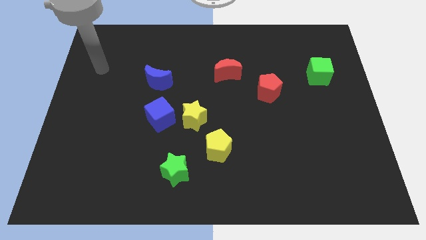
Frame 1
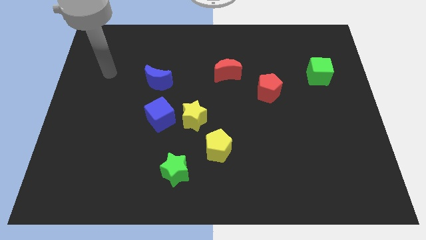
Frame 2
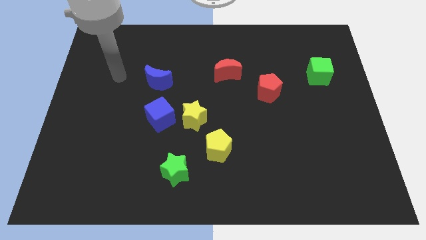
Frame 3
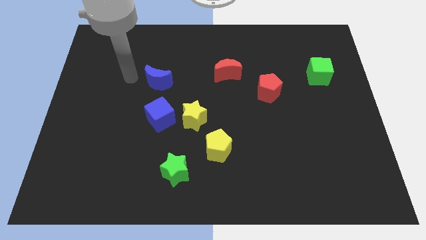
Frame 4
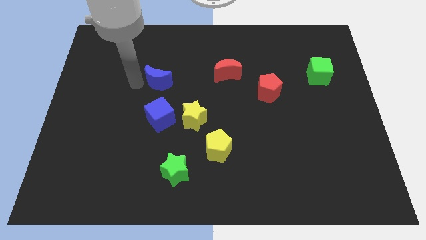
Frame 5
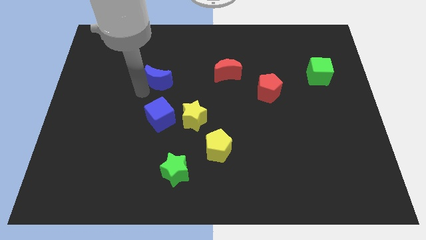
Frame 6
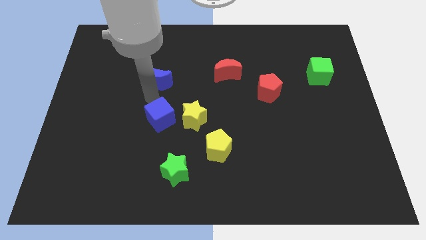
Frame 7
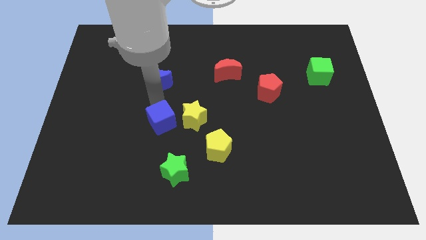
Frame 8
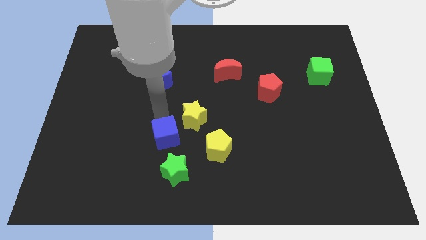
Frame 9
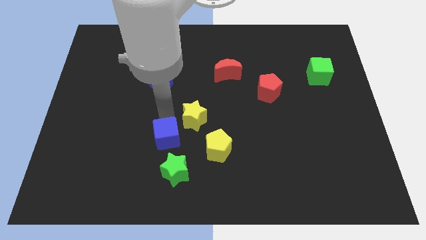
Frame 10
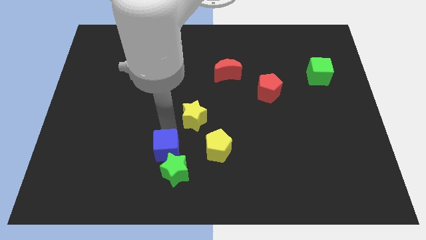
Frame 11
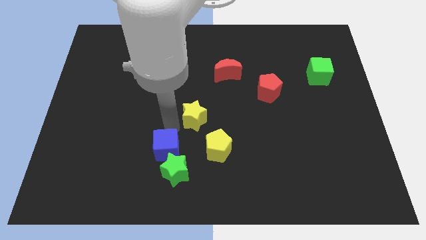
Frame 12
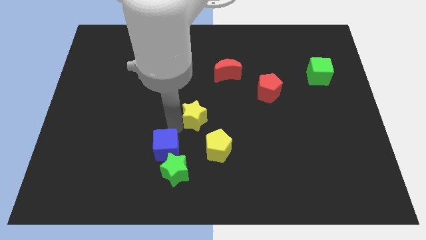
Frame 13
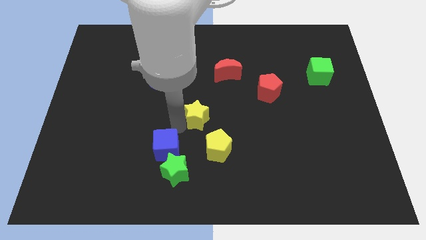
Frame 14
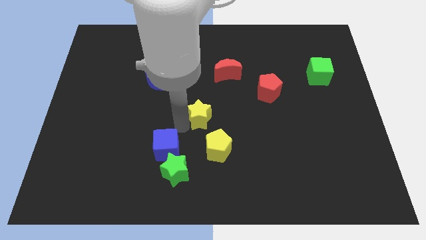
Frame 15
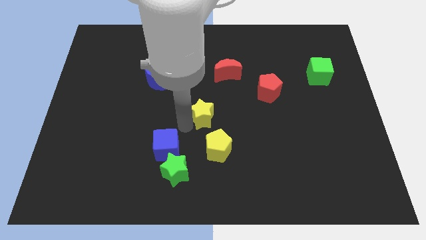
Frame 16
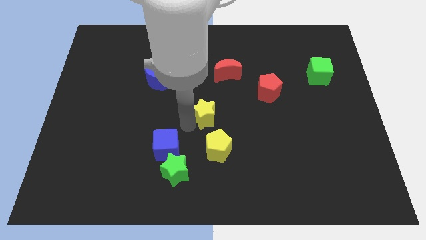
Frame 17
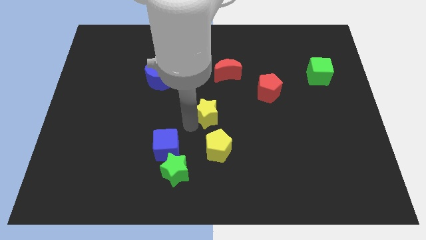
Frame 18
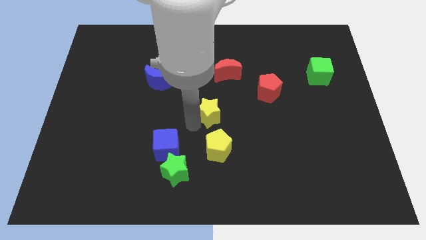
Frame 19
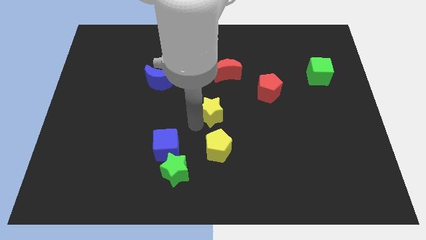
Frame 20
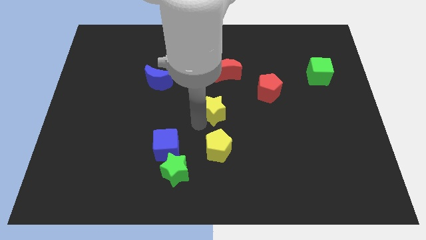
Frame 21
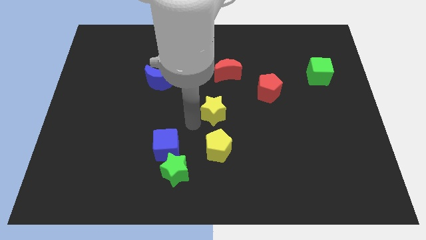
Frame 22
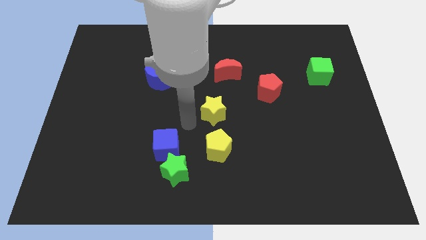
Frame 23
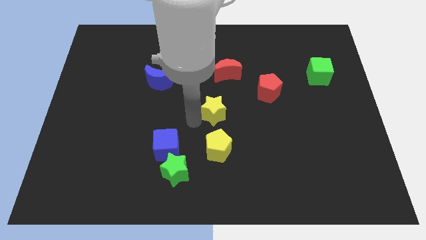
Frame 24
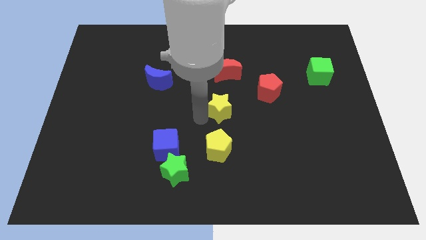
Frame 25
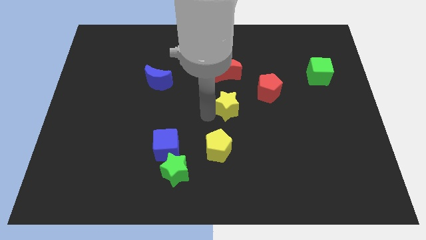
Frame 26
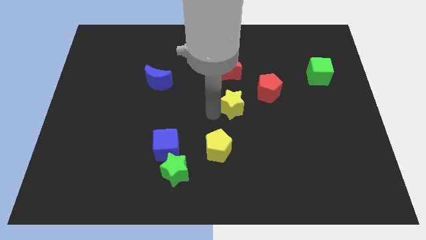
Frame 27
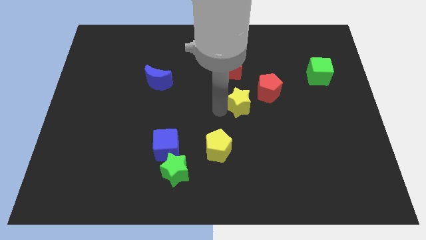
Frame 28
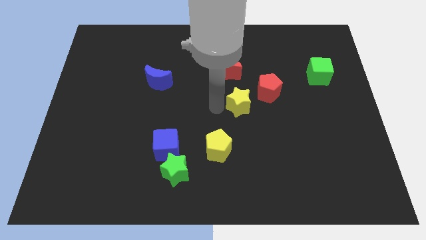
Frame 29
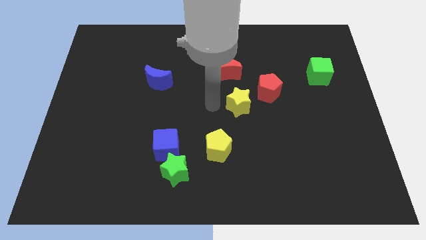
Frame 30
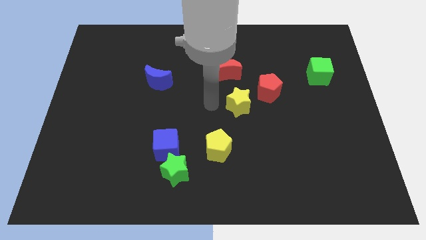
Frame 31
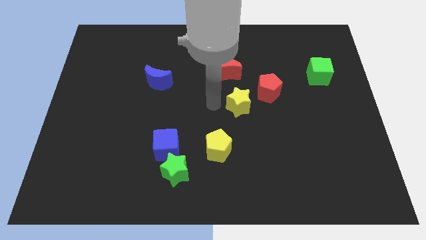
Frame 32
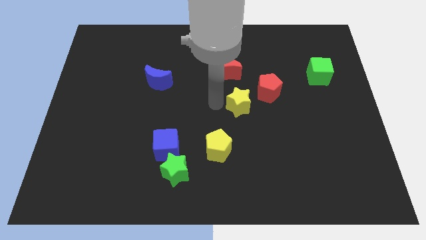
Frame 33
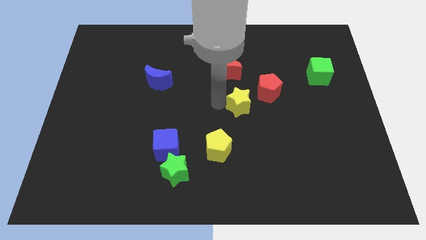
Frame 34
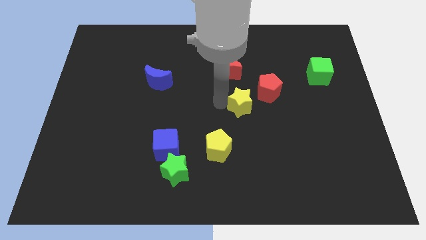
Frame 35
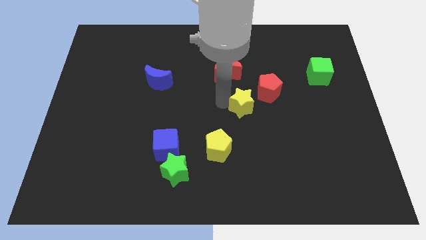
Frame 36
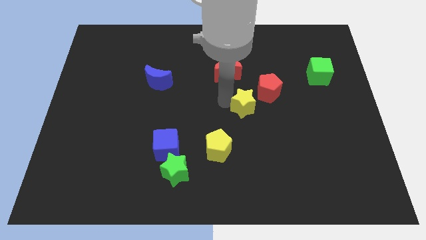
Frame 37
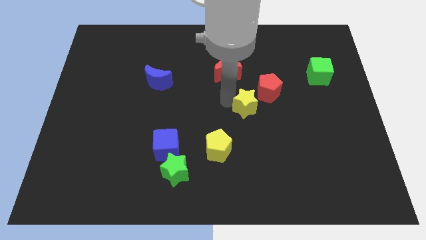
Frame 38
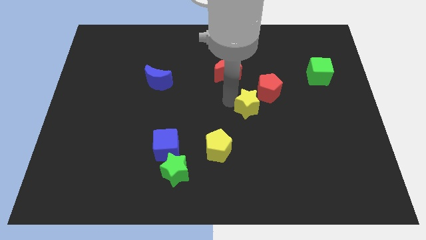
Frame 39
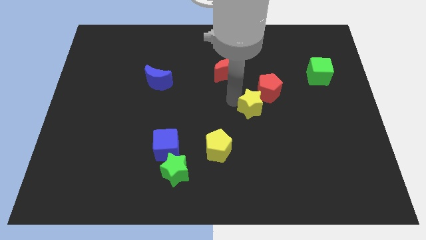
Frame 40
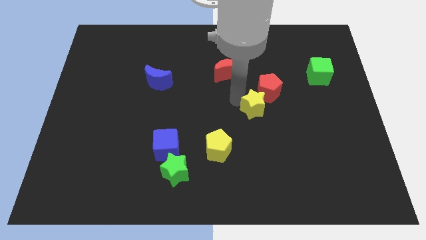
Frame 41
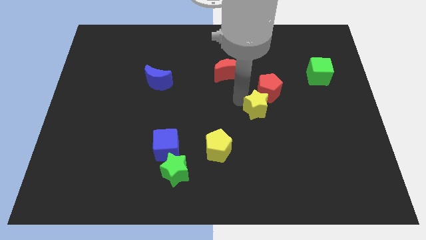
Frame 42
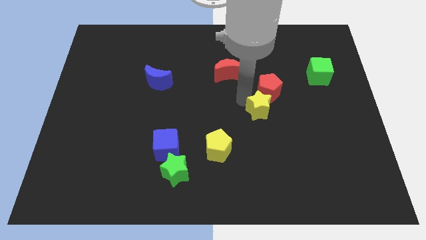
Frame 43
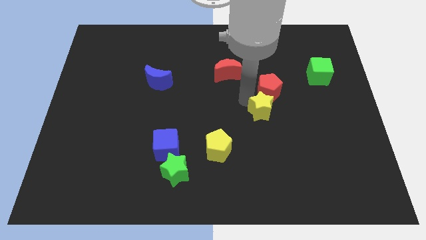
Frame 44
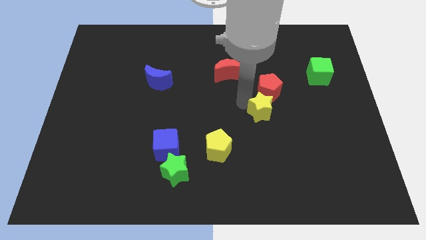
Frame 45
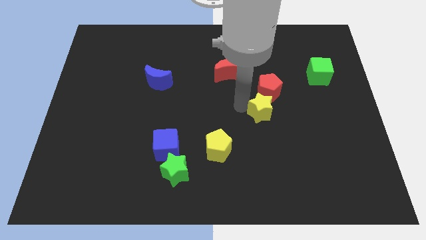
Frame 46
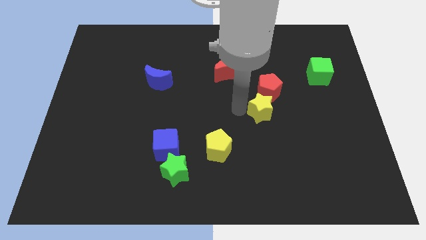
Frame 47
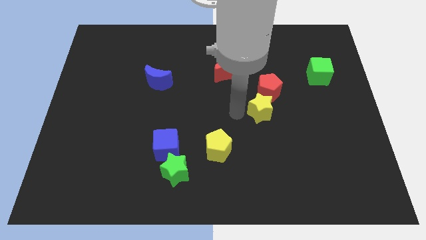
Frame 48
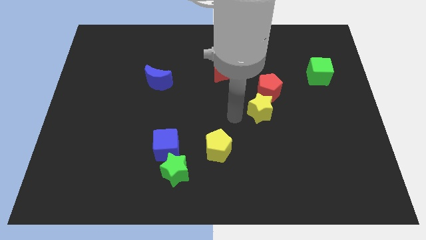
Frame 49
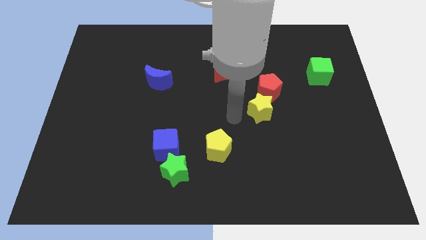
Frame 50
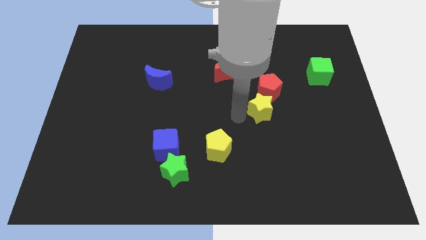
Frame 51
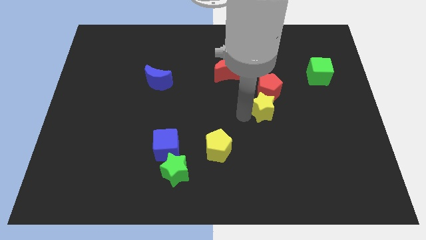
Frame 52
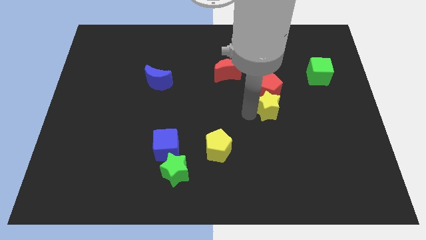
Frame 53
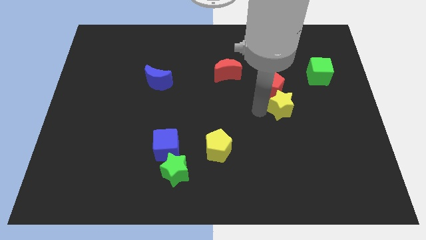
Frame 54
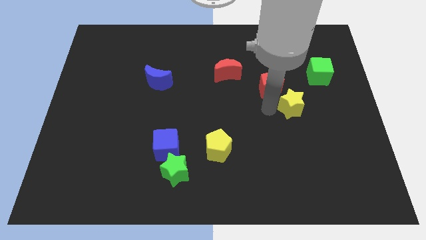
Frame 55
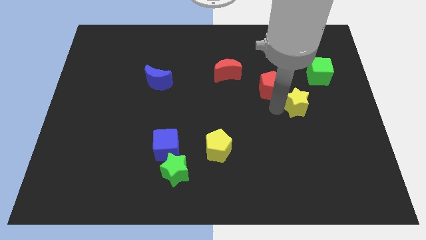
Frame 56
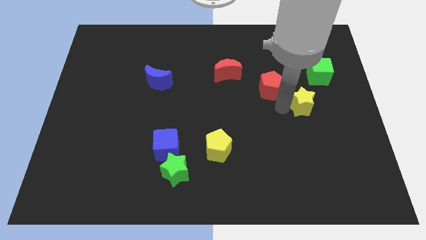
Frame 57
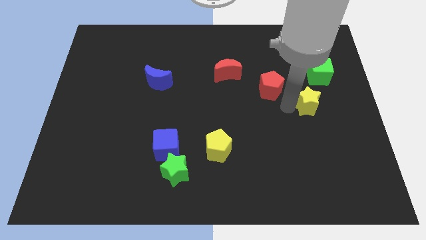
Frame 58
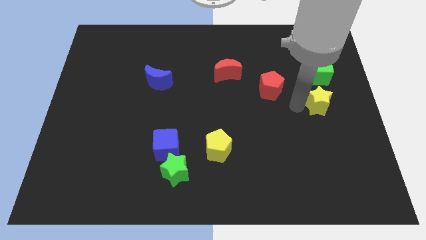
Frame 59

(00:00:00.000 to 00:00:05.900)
slide the yellow star to the right side of the board

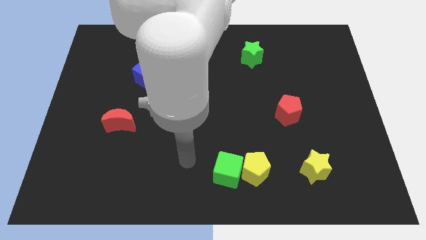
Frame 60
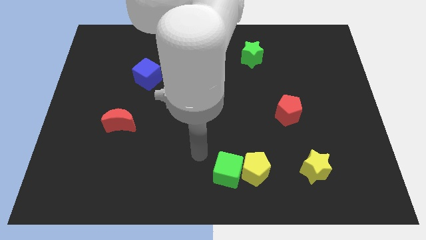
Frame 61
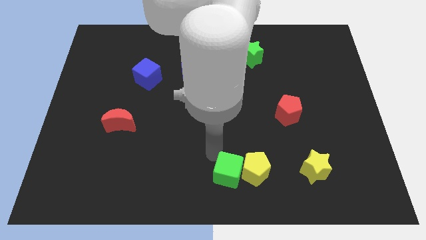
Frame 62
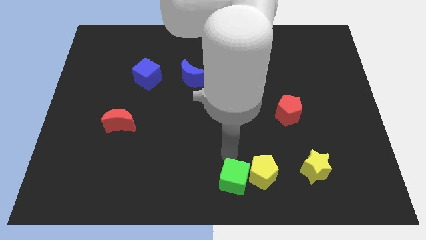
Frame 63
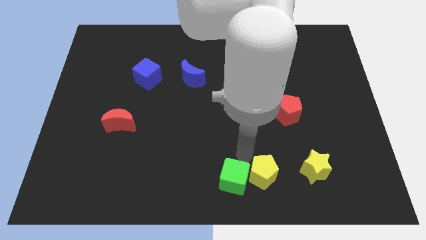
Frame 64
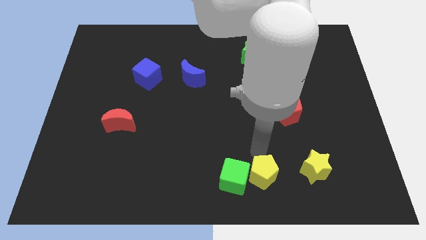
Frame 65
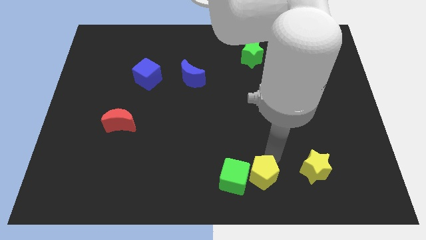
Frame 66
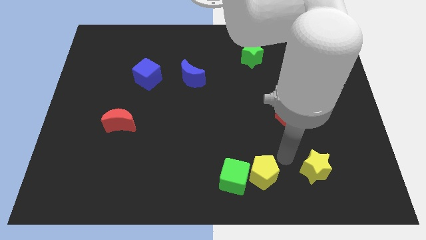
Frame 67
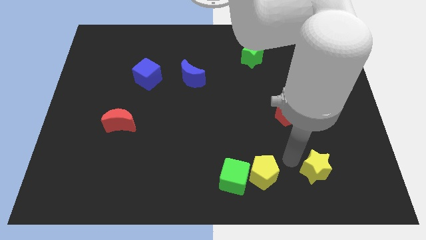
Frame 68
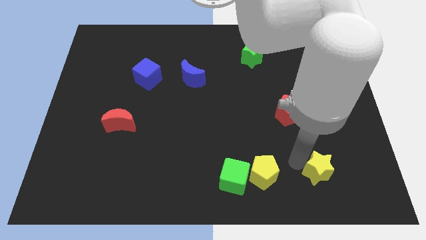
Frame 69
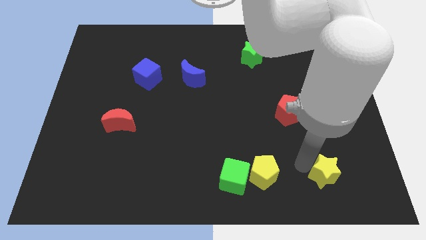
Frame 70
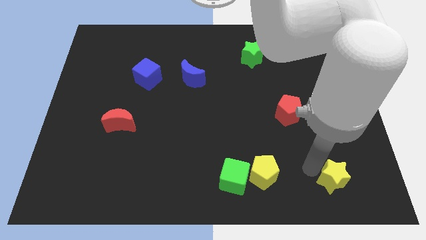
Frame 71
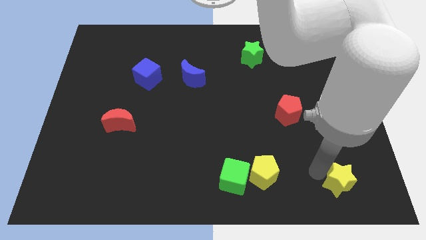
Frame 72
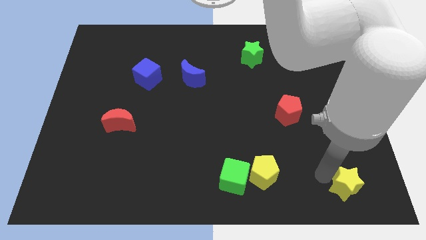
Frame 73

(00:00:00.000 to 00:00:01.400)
put the yellow star to the bottom right corner
